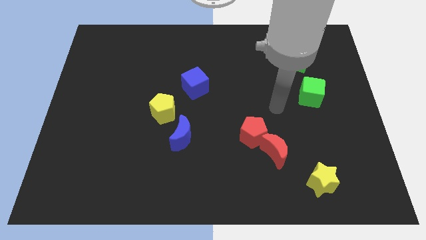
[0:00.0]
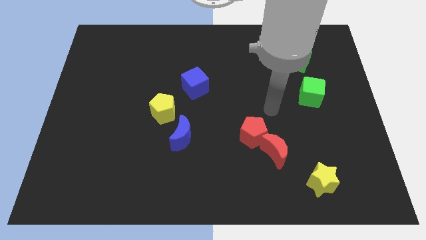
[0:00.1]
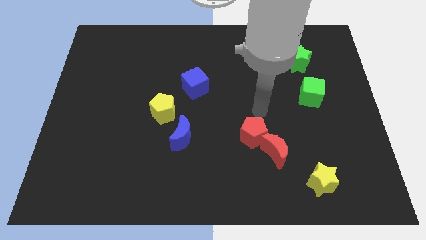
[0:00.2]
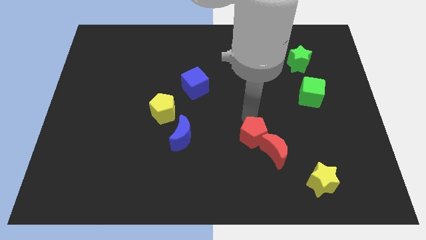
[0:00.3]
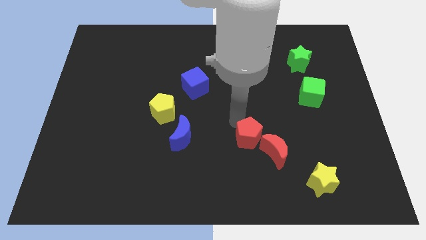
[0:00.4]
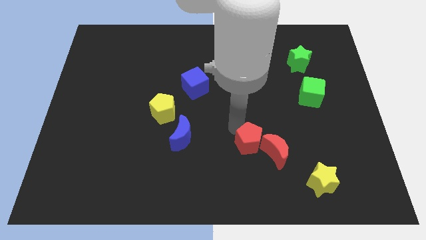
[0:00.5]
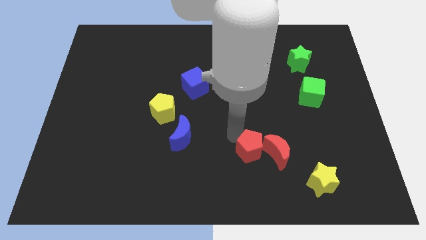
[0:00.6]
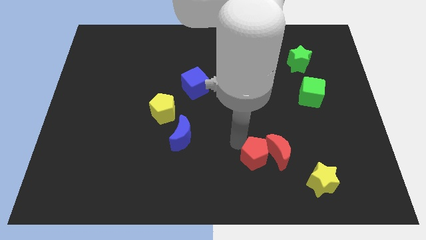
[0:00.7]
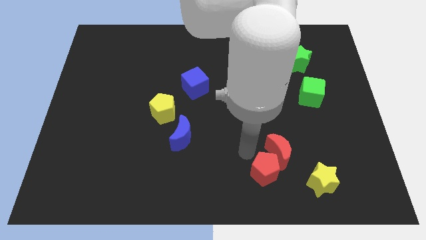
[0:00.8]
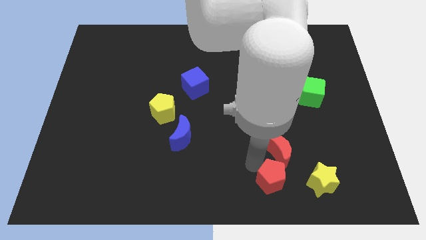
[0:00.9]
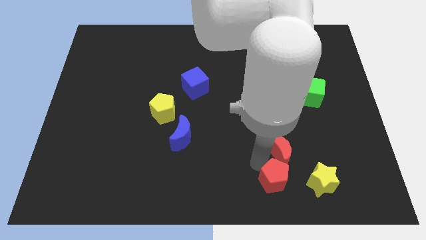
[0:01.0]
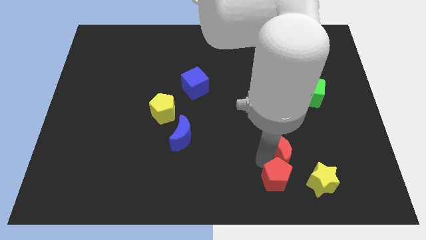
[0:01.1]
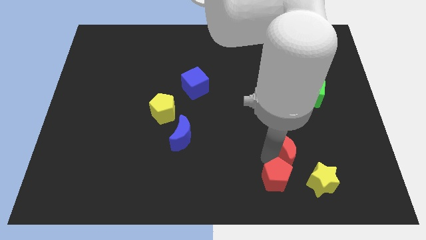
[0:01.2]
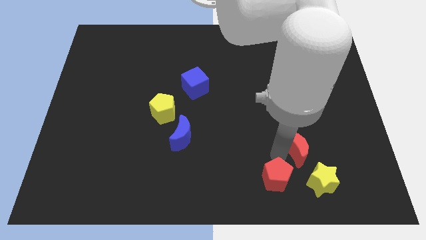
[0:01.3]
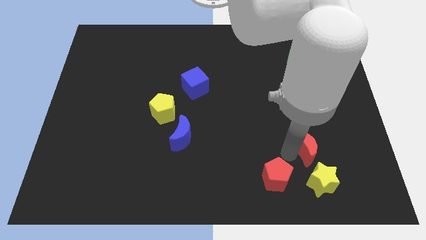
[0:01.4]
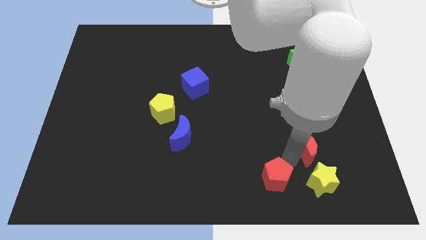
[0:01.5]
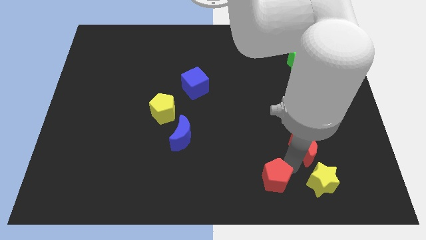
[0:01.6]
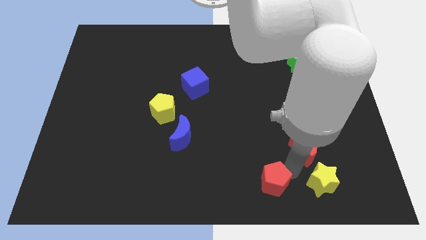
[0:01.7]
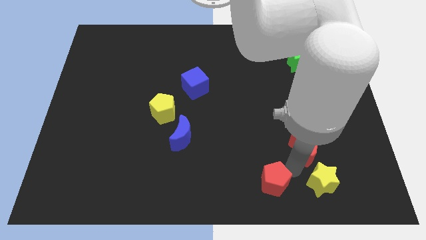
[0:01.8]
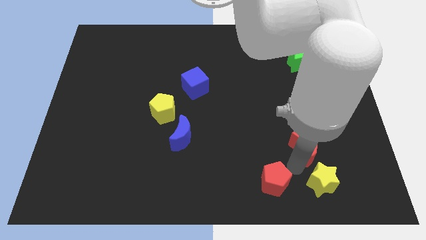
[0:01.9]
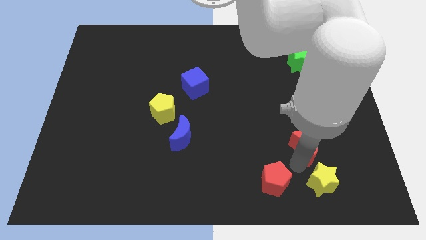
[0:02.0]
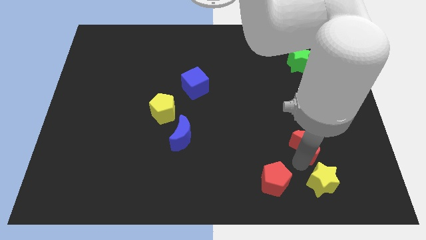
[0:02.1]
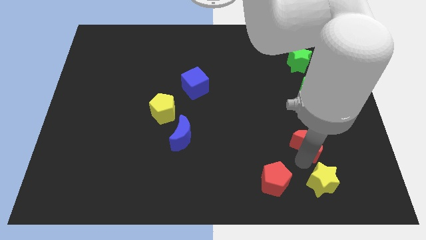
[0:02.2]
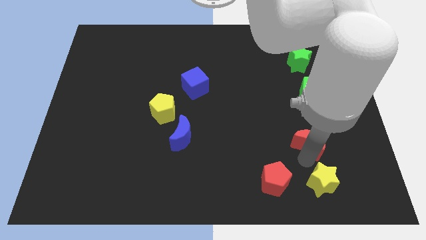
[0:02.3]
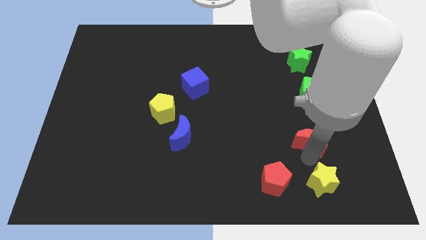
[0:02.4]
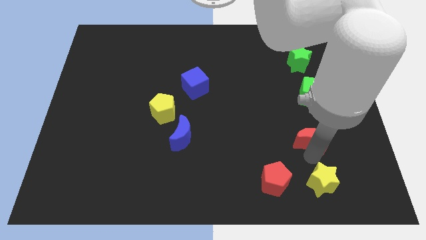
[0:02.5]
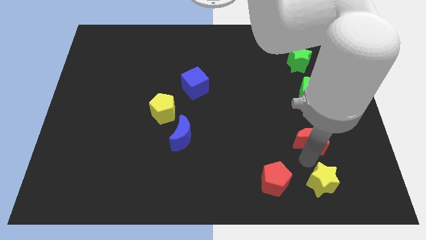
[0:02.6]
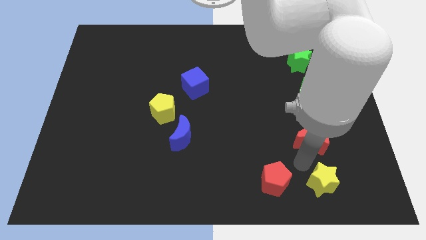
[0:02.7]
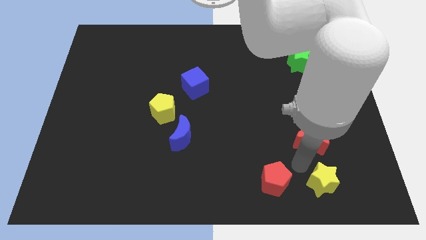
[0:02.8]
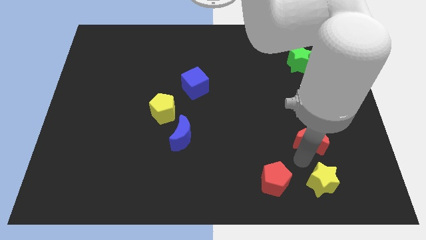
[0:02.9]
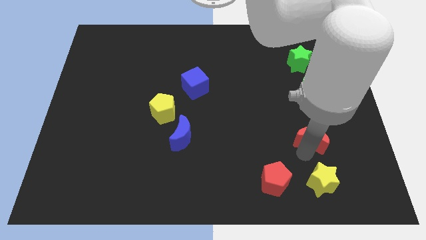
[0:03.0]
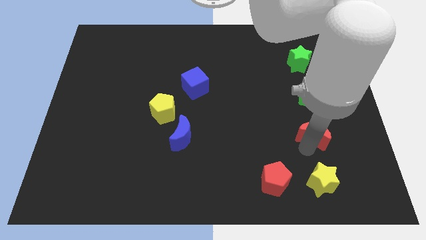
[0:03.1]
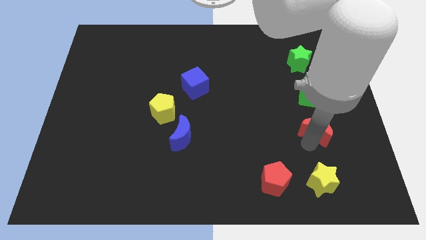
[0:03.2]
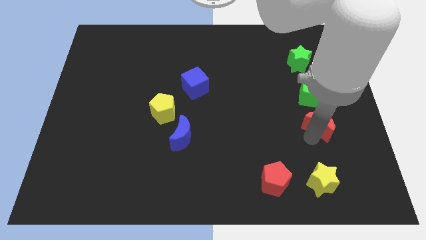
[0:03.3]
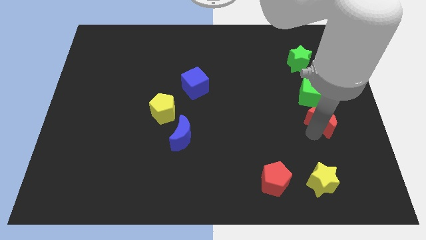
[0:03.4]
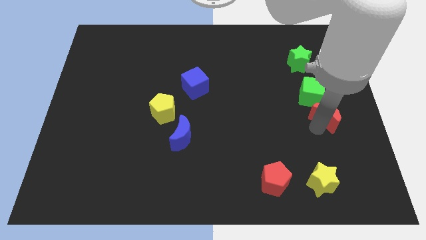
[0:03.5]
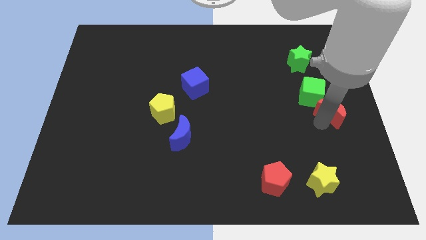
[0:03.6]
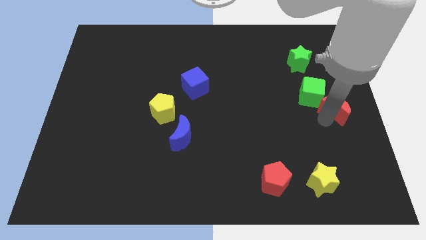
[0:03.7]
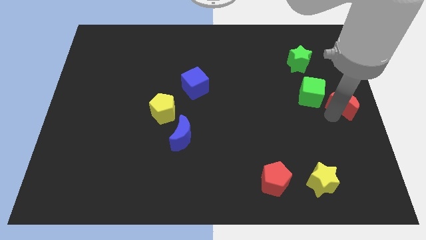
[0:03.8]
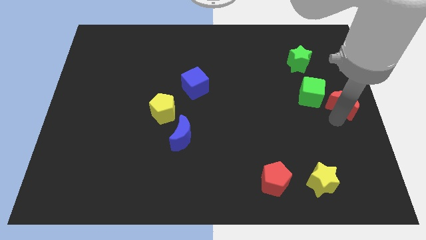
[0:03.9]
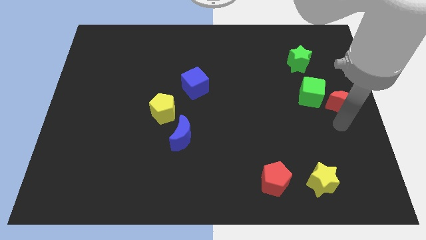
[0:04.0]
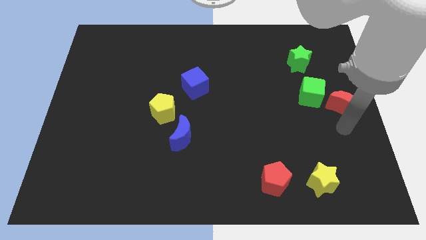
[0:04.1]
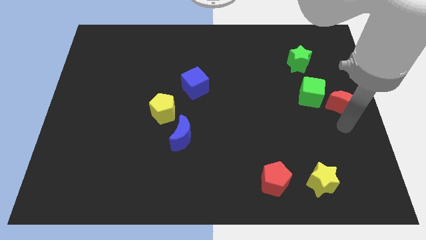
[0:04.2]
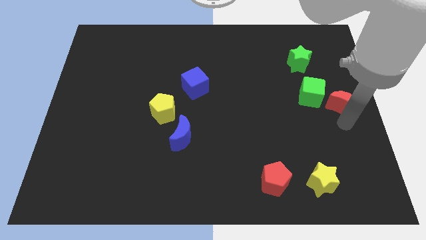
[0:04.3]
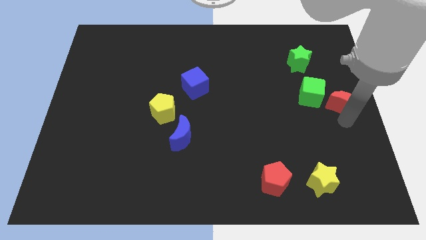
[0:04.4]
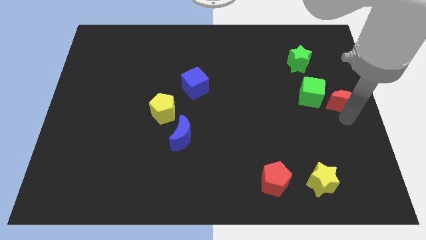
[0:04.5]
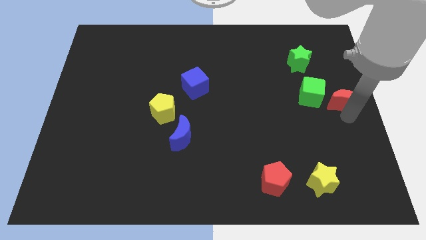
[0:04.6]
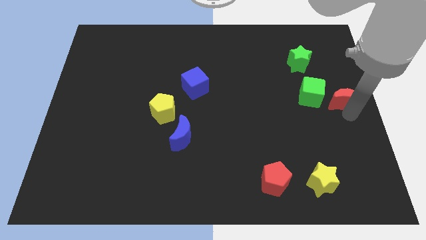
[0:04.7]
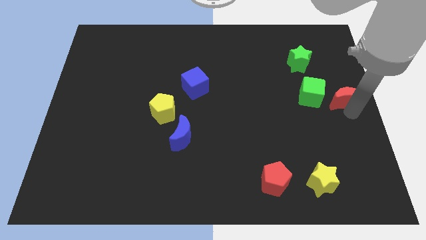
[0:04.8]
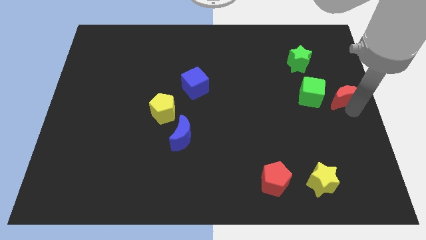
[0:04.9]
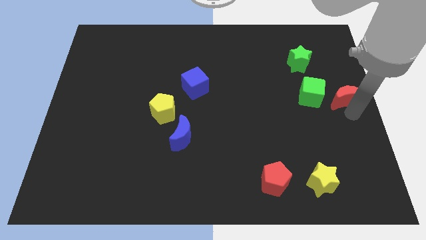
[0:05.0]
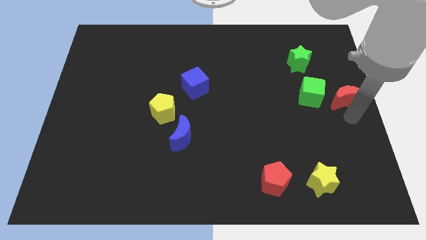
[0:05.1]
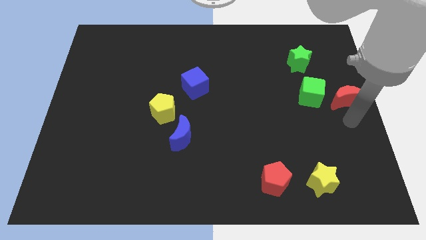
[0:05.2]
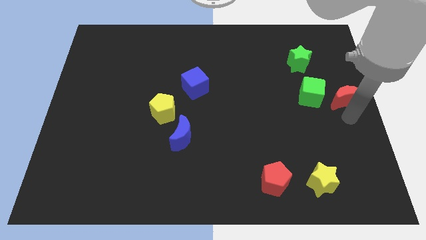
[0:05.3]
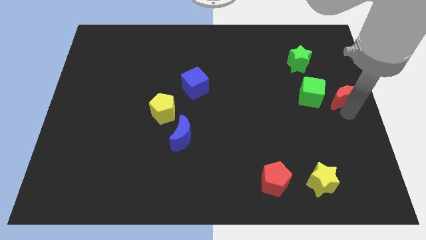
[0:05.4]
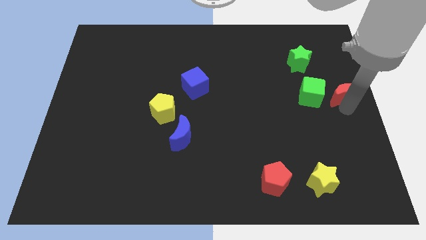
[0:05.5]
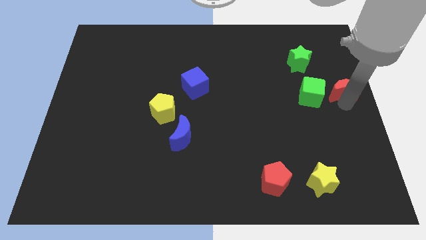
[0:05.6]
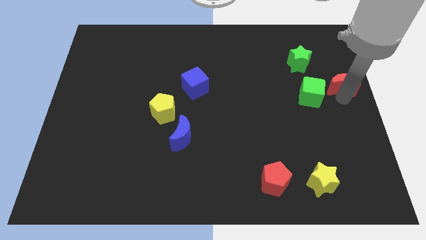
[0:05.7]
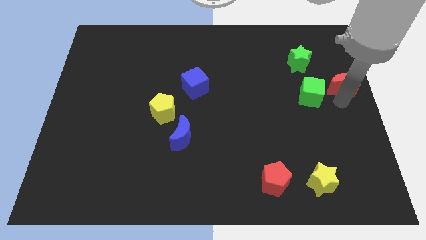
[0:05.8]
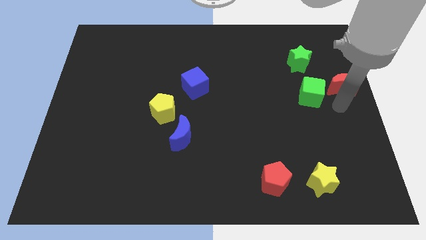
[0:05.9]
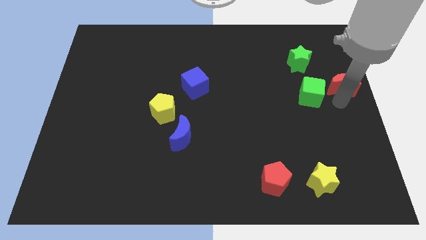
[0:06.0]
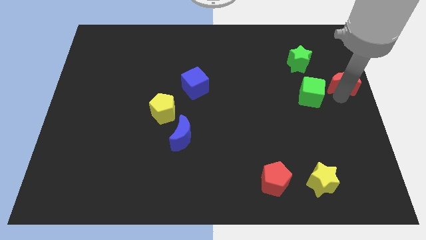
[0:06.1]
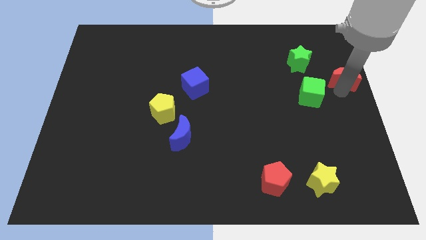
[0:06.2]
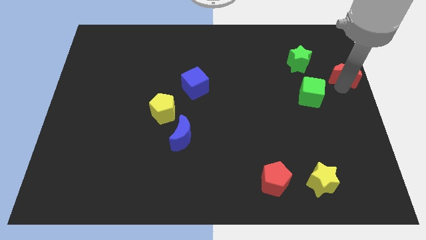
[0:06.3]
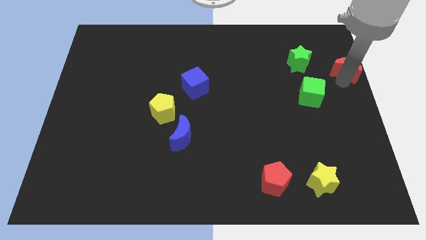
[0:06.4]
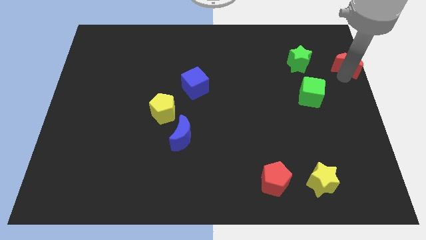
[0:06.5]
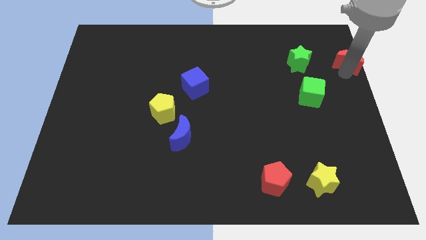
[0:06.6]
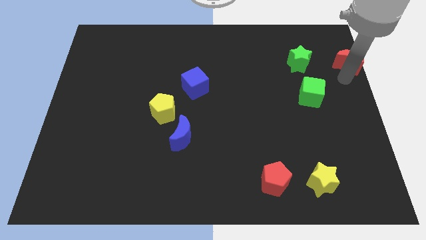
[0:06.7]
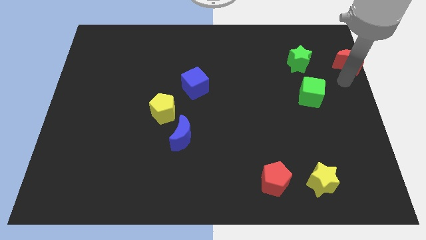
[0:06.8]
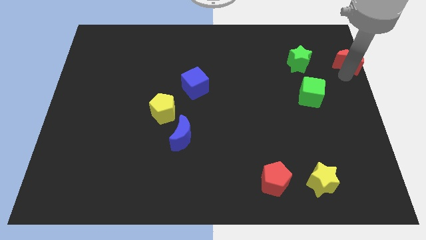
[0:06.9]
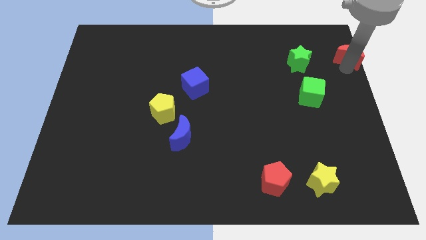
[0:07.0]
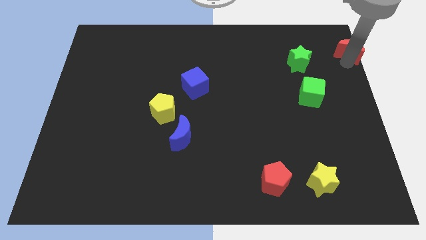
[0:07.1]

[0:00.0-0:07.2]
move the red moon to the top right corner
